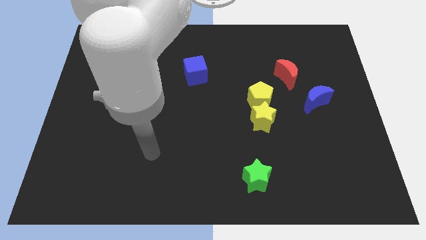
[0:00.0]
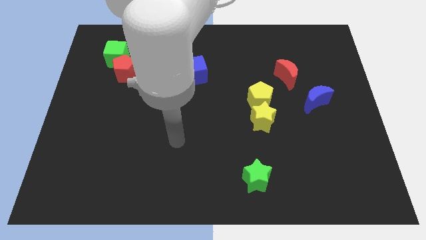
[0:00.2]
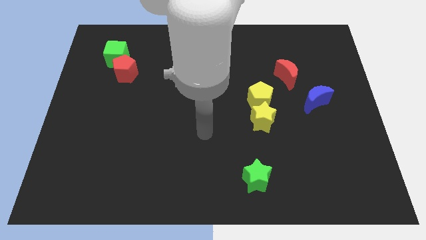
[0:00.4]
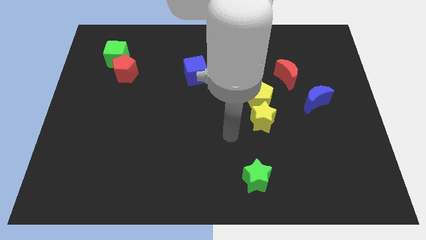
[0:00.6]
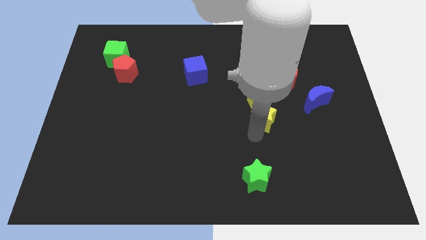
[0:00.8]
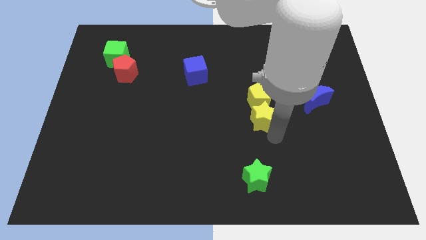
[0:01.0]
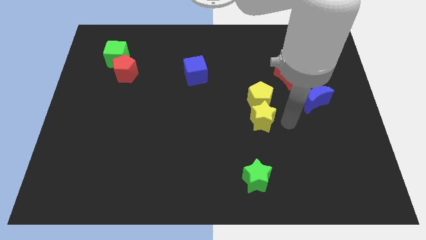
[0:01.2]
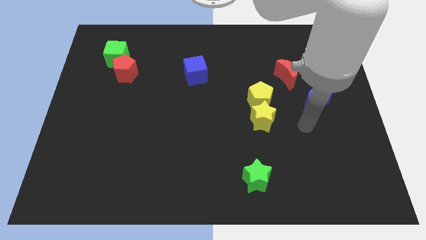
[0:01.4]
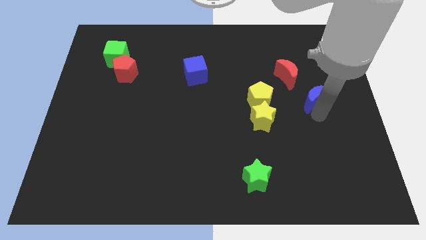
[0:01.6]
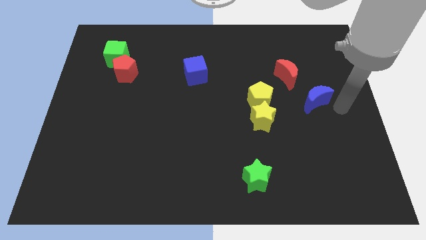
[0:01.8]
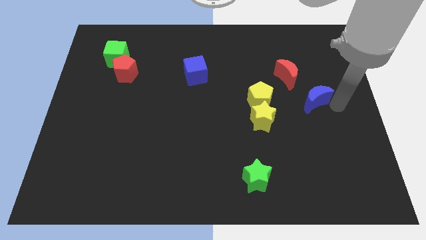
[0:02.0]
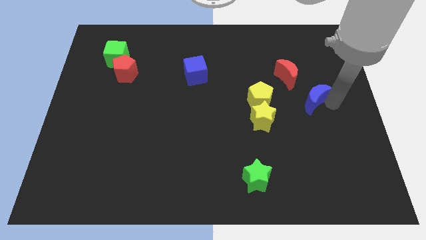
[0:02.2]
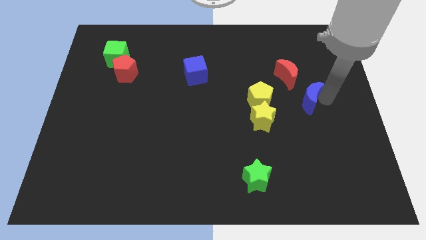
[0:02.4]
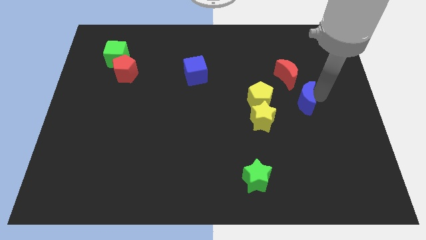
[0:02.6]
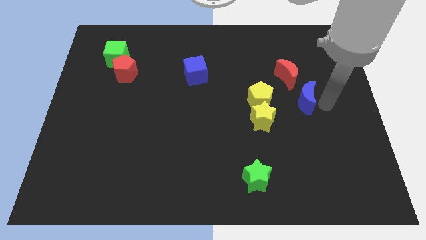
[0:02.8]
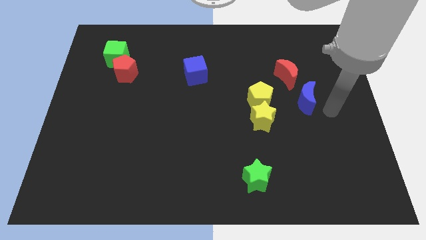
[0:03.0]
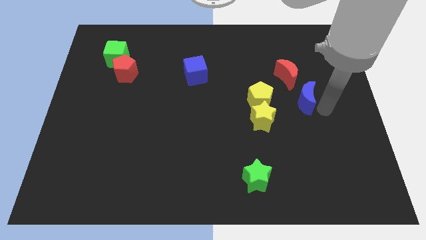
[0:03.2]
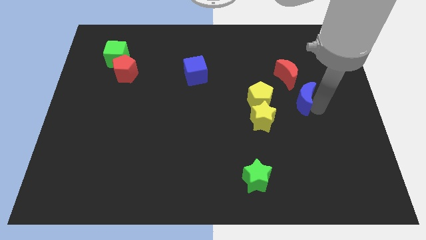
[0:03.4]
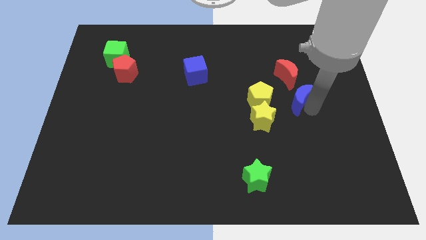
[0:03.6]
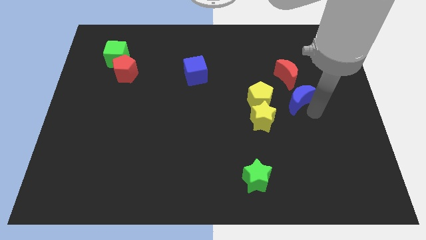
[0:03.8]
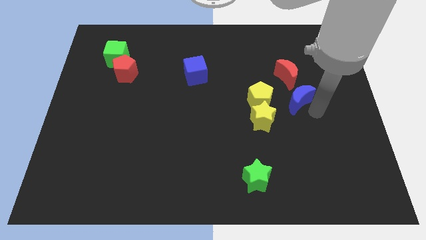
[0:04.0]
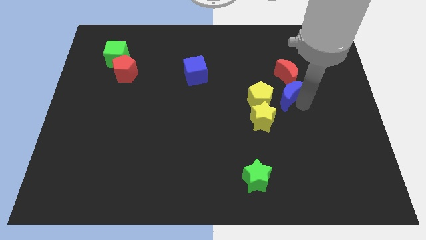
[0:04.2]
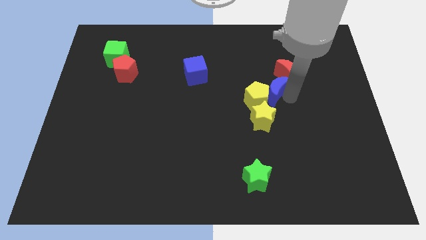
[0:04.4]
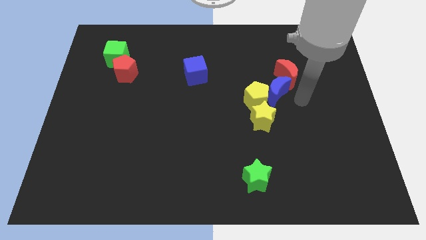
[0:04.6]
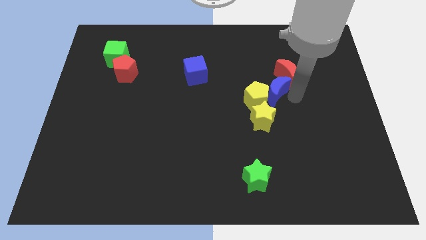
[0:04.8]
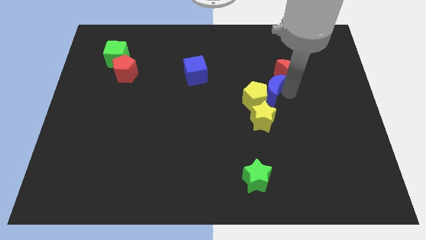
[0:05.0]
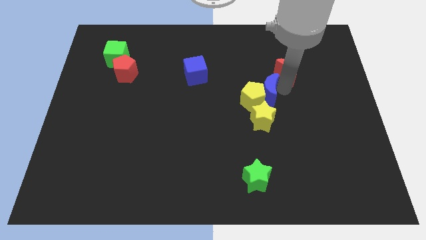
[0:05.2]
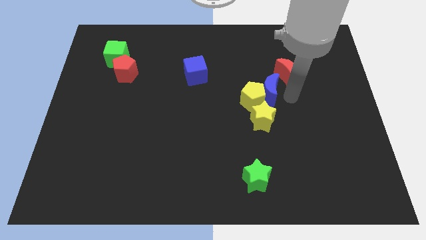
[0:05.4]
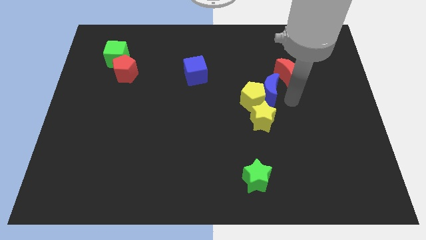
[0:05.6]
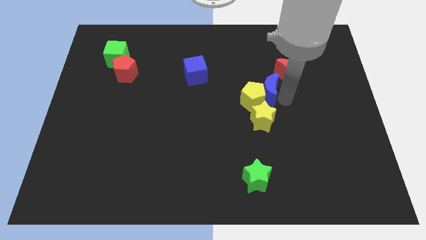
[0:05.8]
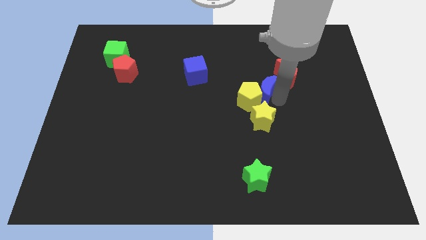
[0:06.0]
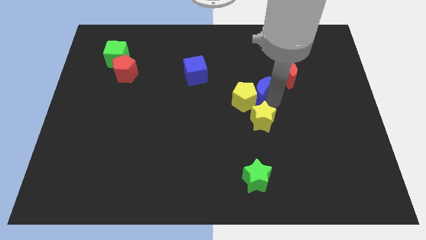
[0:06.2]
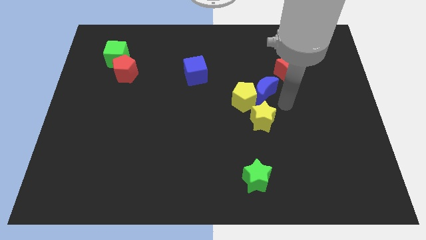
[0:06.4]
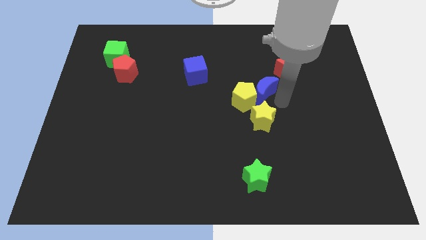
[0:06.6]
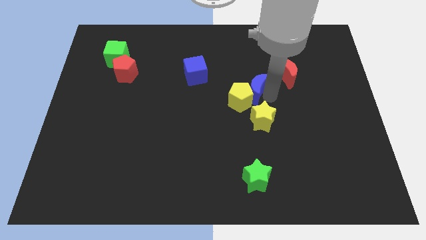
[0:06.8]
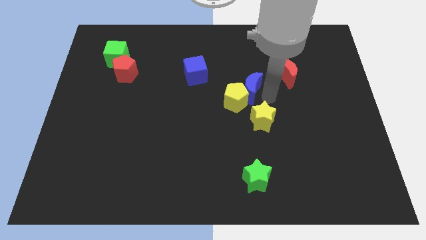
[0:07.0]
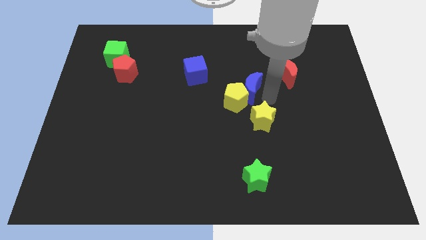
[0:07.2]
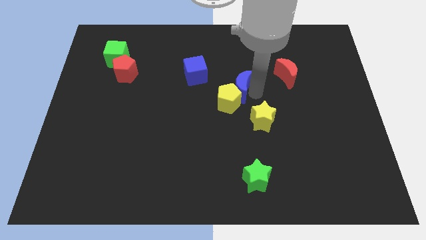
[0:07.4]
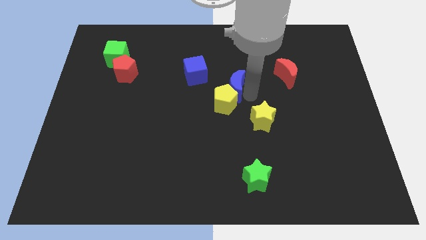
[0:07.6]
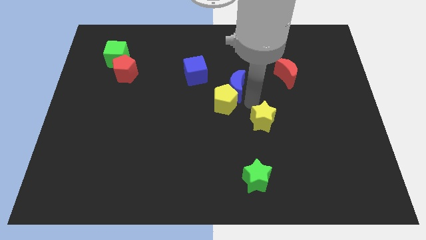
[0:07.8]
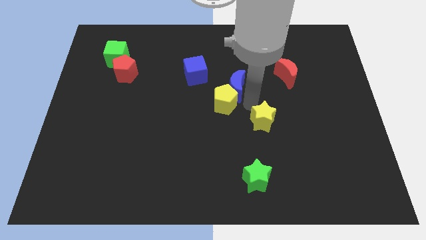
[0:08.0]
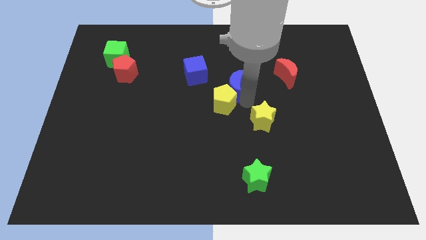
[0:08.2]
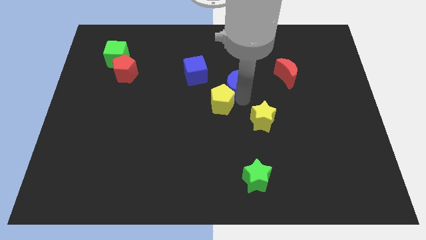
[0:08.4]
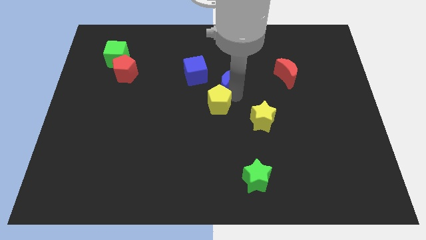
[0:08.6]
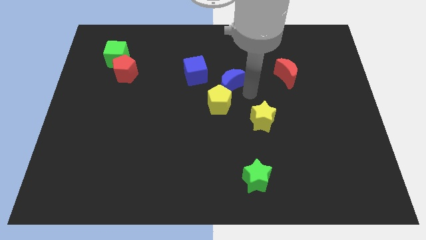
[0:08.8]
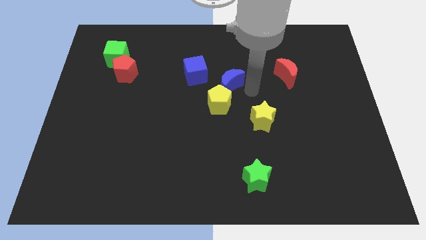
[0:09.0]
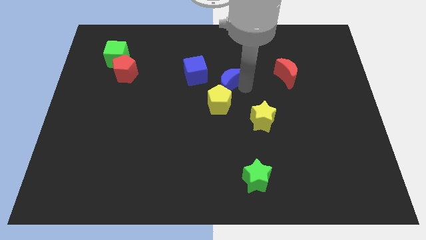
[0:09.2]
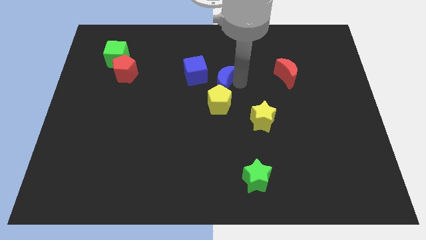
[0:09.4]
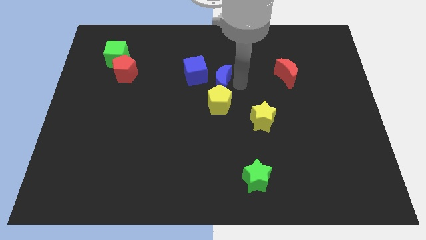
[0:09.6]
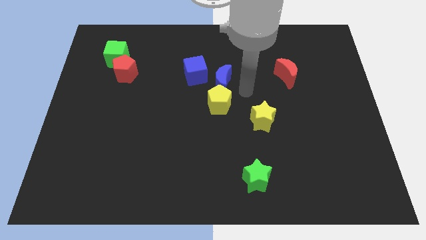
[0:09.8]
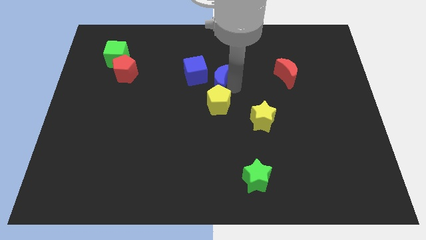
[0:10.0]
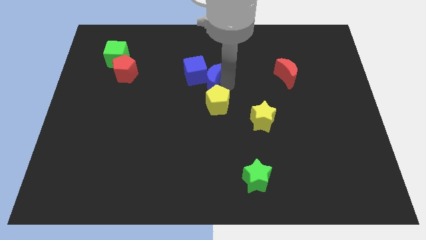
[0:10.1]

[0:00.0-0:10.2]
slide the blue moon close to the blue cube

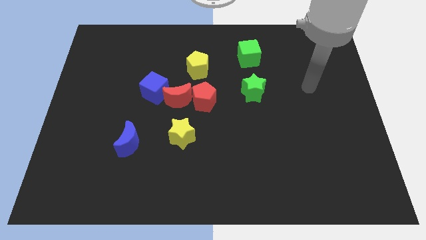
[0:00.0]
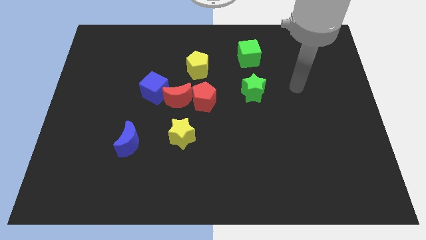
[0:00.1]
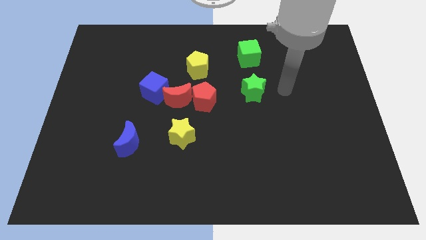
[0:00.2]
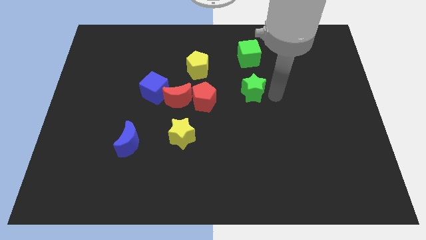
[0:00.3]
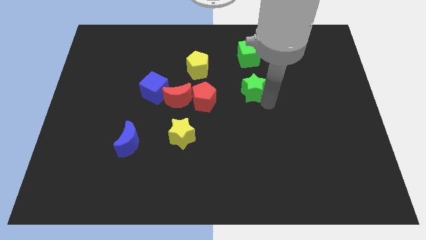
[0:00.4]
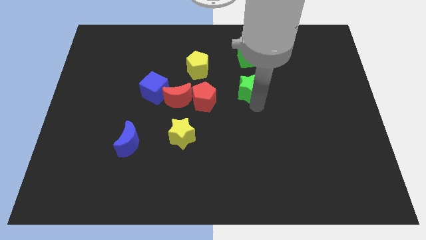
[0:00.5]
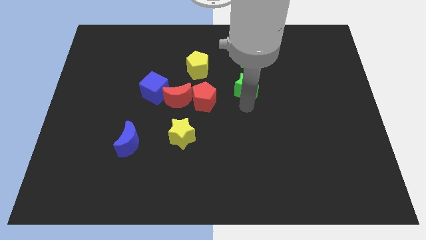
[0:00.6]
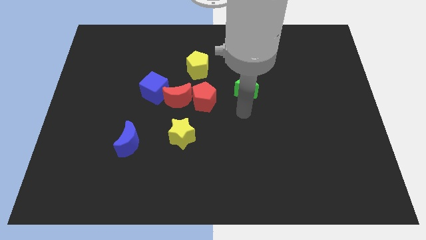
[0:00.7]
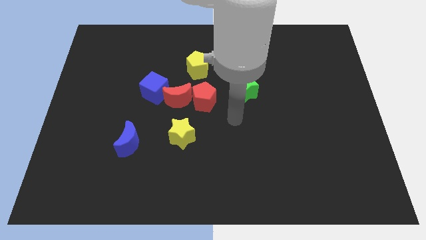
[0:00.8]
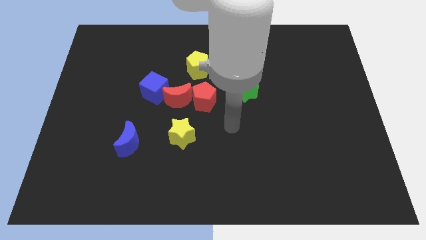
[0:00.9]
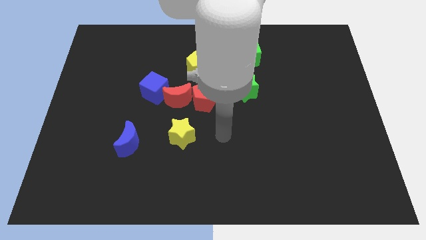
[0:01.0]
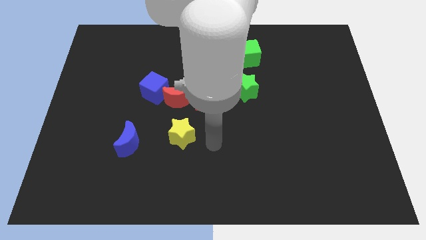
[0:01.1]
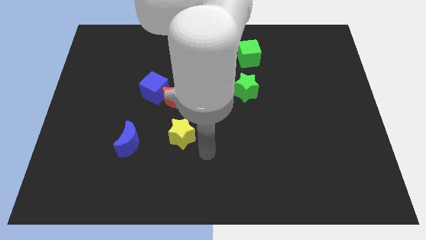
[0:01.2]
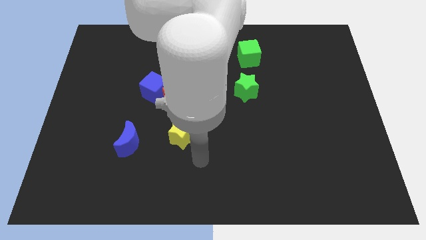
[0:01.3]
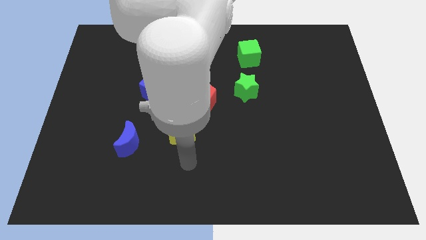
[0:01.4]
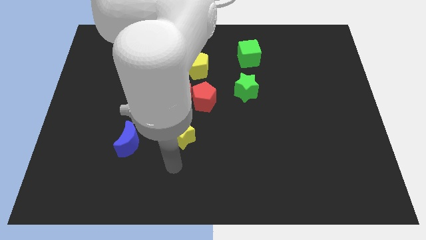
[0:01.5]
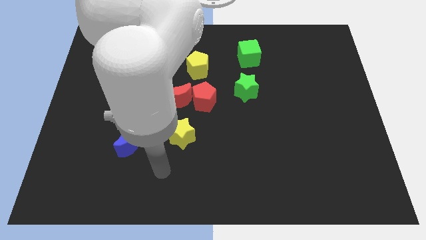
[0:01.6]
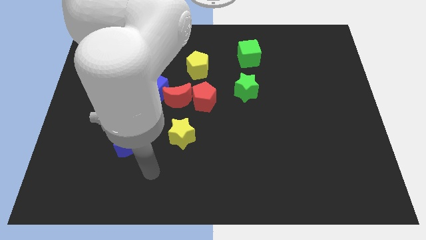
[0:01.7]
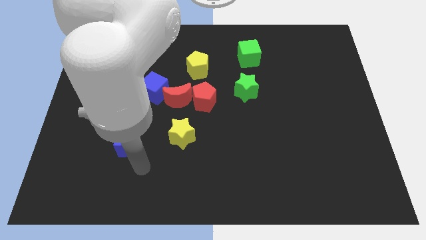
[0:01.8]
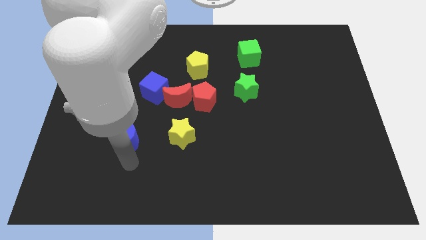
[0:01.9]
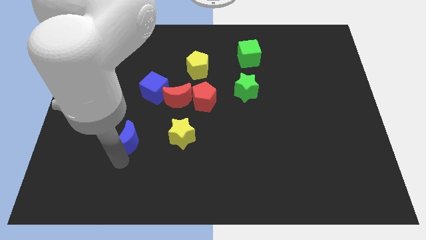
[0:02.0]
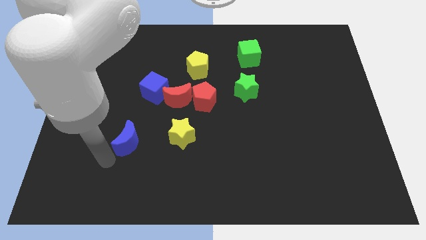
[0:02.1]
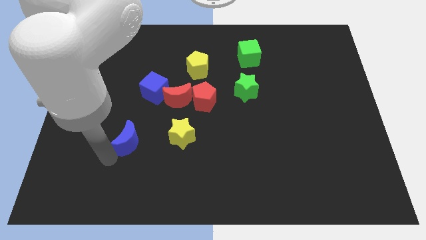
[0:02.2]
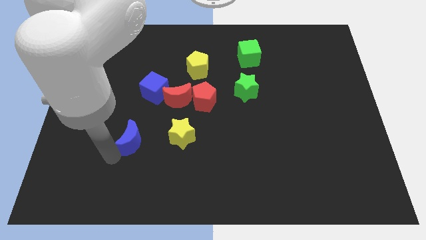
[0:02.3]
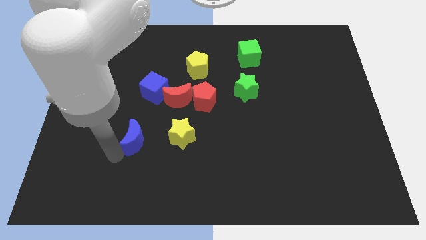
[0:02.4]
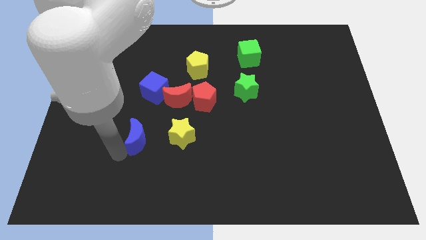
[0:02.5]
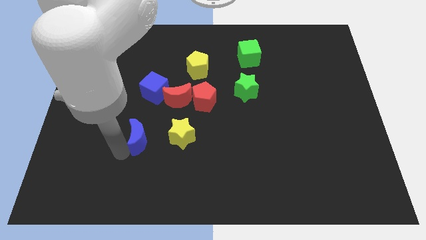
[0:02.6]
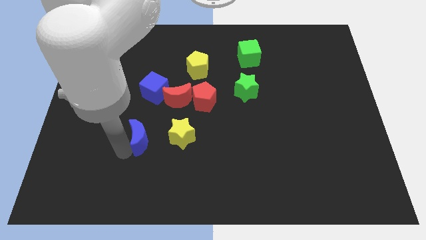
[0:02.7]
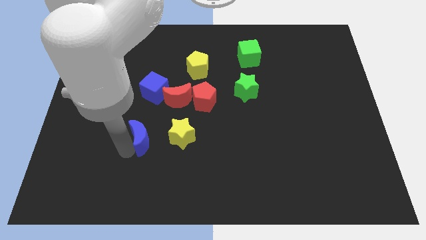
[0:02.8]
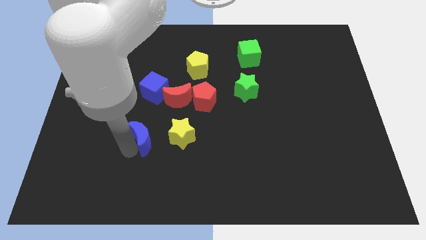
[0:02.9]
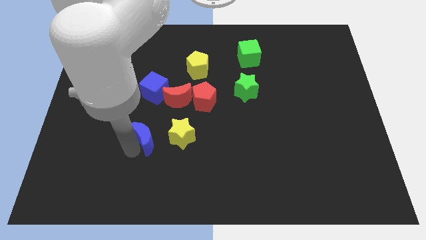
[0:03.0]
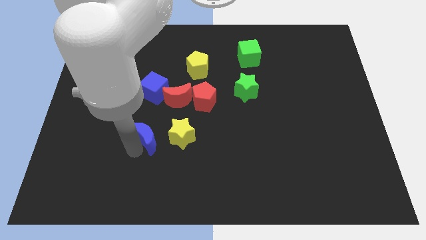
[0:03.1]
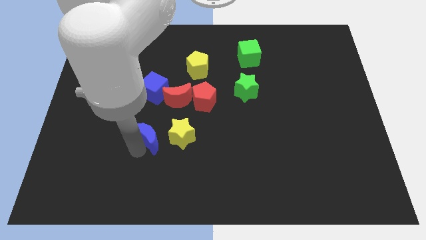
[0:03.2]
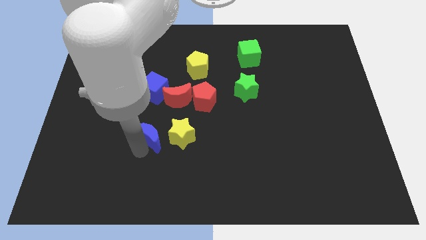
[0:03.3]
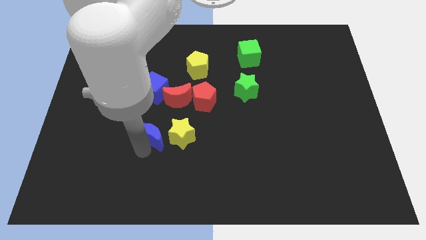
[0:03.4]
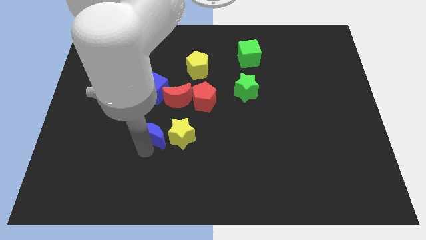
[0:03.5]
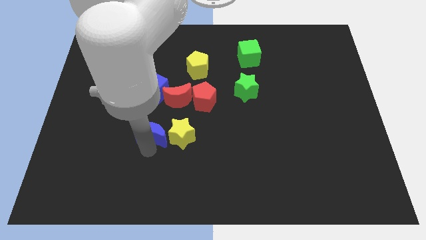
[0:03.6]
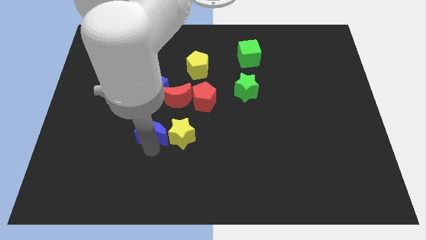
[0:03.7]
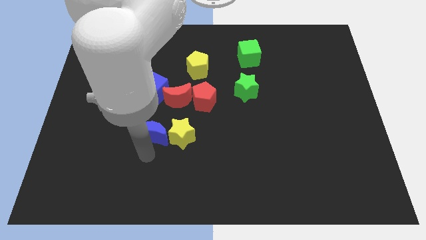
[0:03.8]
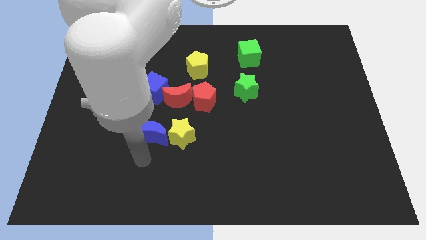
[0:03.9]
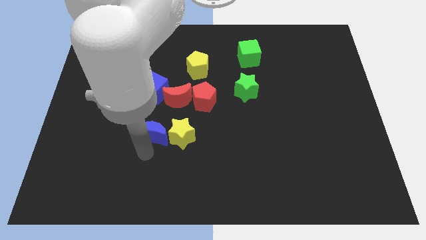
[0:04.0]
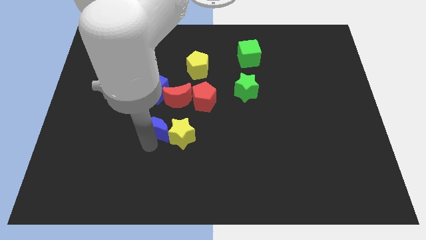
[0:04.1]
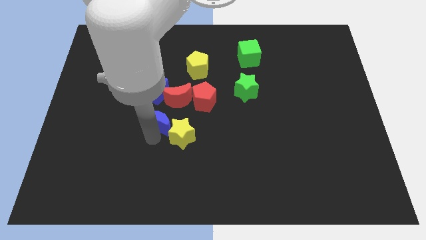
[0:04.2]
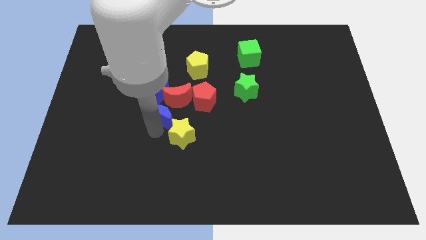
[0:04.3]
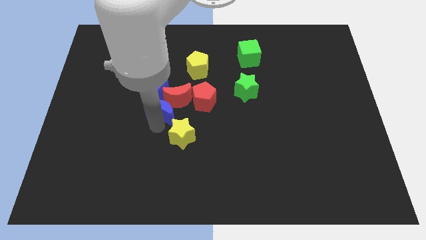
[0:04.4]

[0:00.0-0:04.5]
slide the blue moon to the red moon
